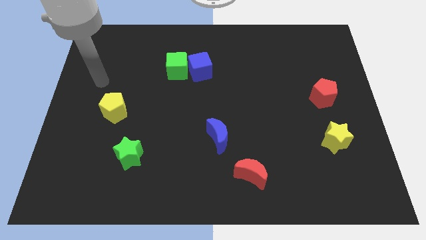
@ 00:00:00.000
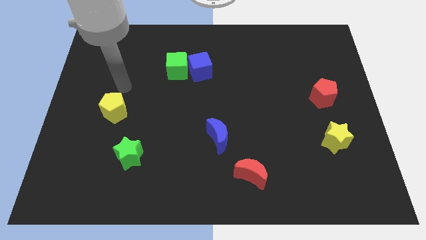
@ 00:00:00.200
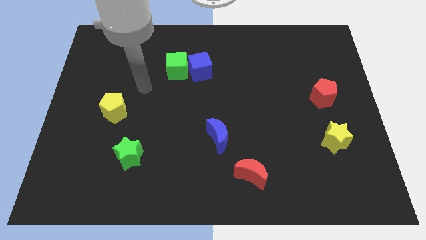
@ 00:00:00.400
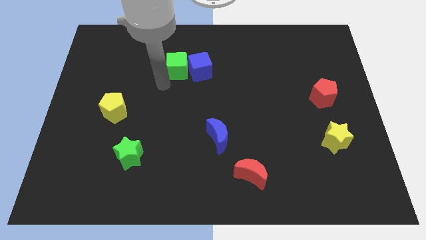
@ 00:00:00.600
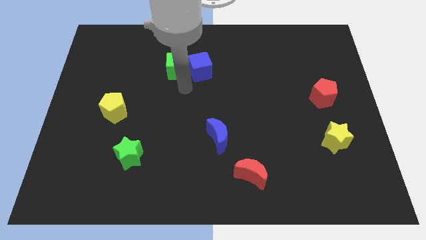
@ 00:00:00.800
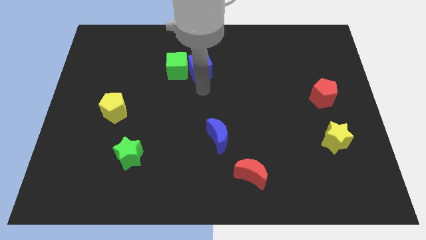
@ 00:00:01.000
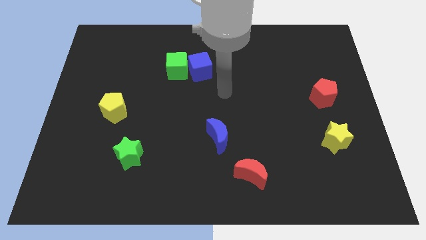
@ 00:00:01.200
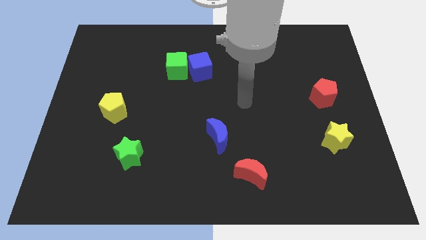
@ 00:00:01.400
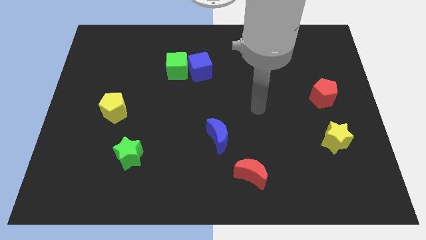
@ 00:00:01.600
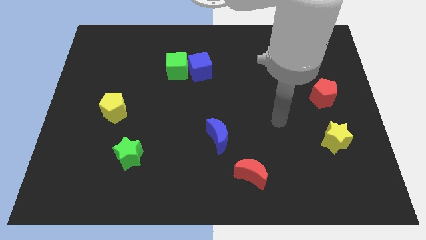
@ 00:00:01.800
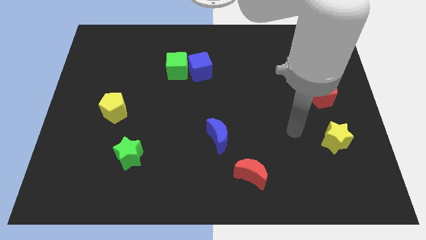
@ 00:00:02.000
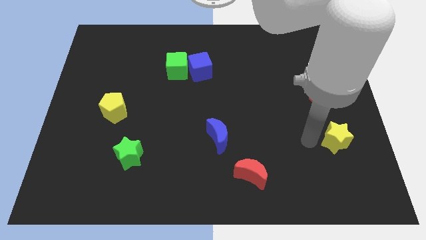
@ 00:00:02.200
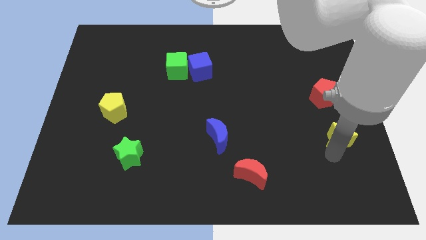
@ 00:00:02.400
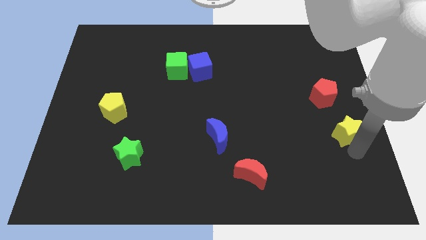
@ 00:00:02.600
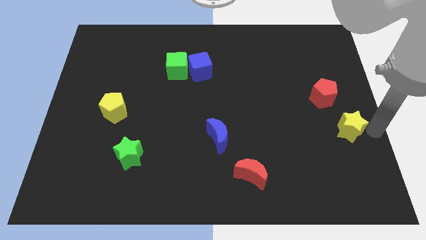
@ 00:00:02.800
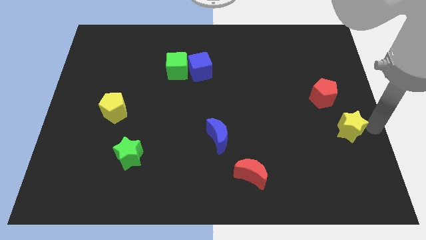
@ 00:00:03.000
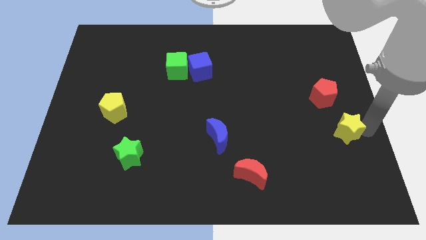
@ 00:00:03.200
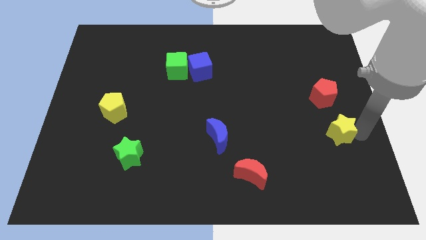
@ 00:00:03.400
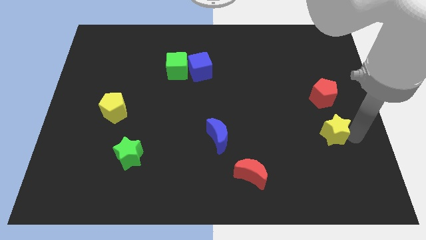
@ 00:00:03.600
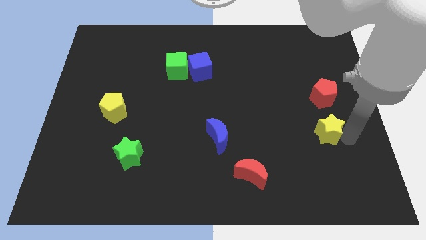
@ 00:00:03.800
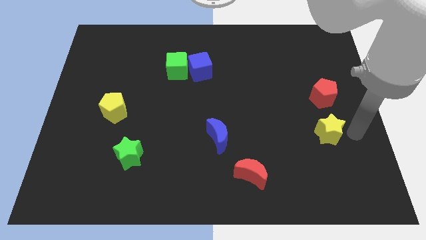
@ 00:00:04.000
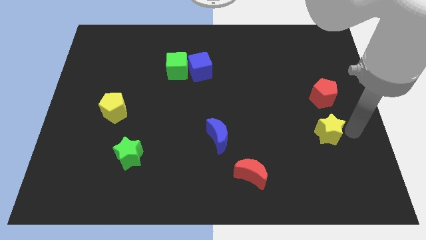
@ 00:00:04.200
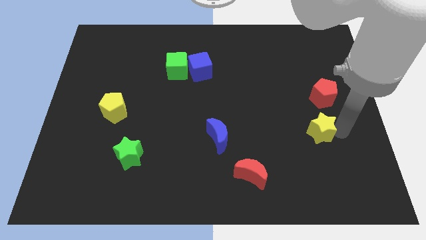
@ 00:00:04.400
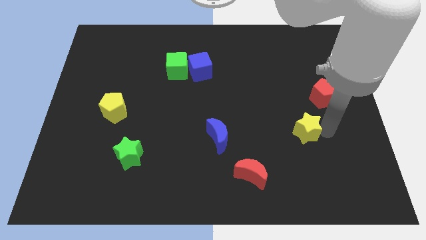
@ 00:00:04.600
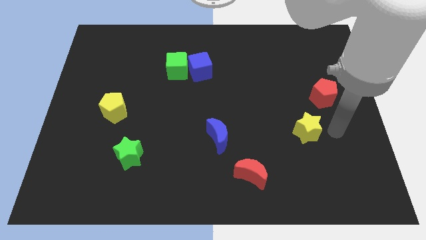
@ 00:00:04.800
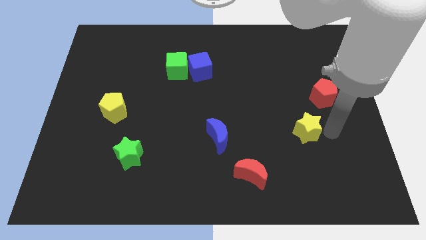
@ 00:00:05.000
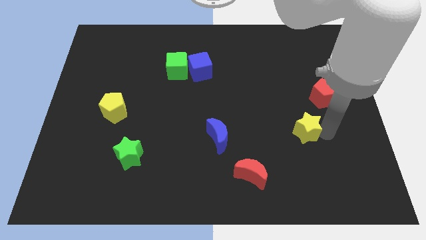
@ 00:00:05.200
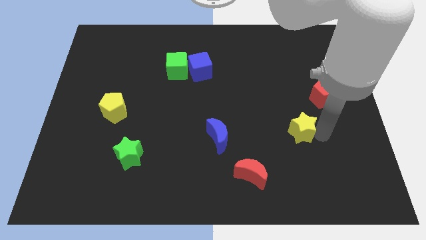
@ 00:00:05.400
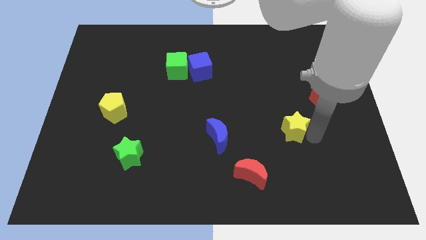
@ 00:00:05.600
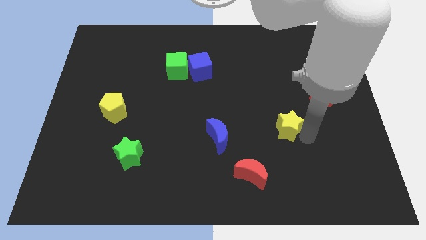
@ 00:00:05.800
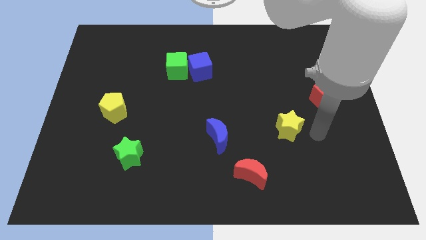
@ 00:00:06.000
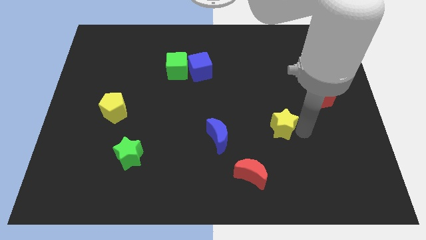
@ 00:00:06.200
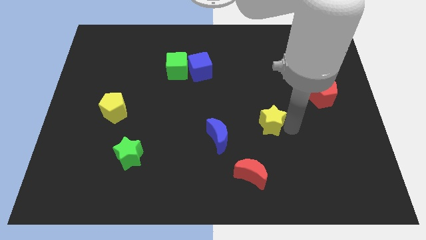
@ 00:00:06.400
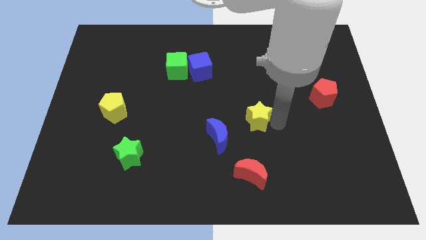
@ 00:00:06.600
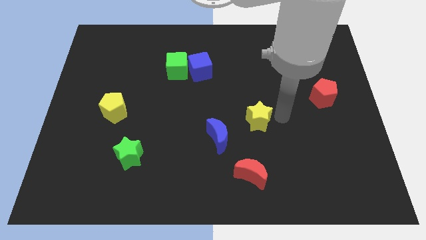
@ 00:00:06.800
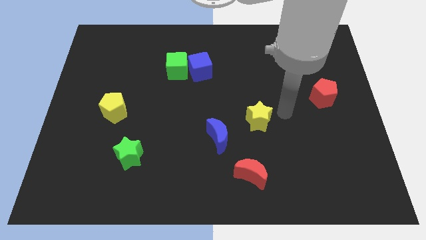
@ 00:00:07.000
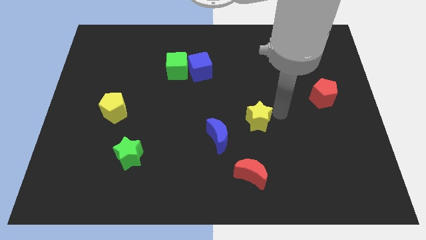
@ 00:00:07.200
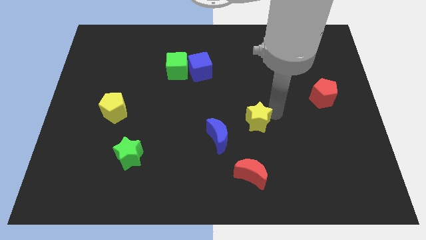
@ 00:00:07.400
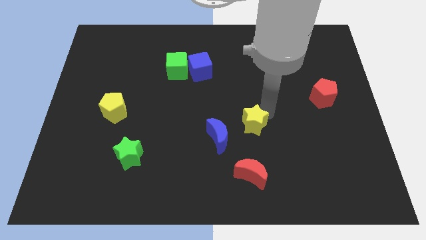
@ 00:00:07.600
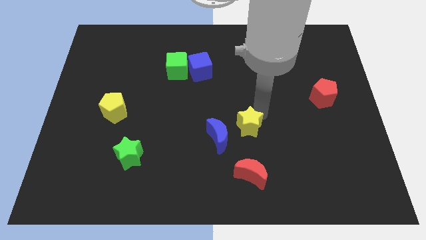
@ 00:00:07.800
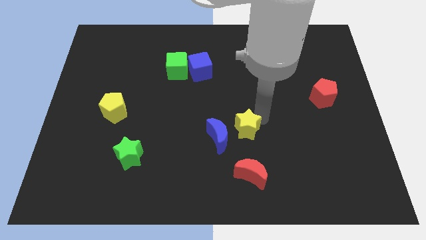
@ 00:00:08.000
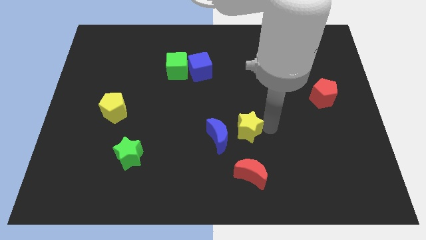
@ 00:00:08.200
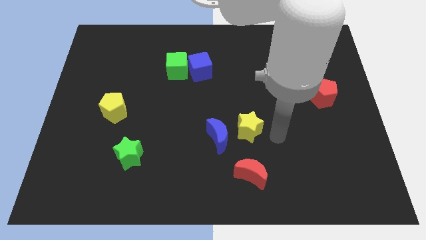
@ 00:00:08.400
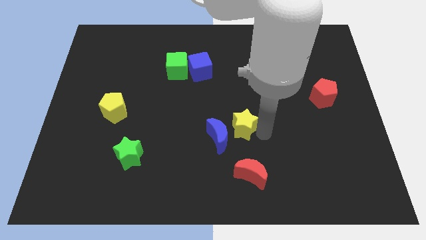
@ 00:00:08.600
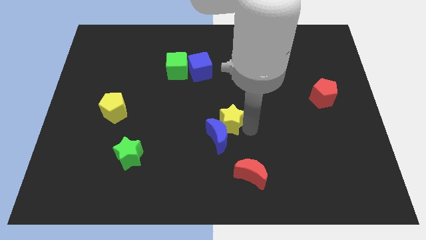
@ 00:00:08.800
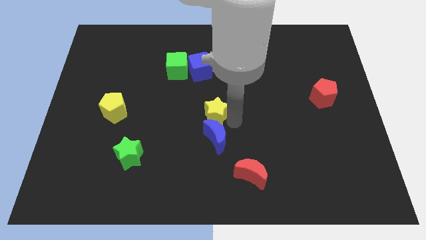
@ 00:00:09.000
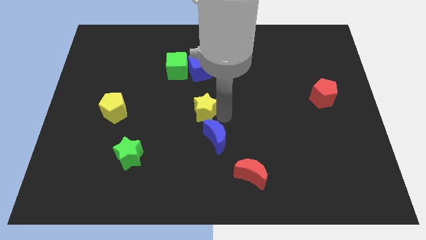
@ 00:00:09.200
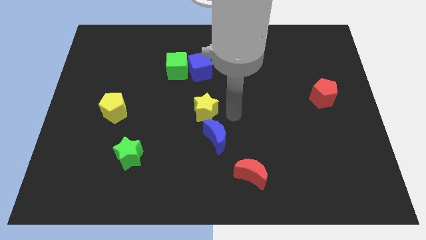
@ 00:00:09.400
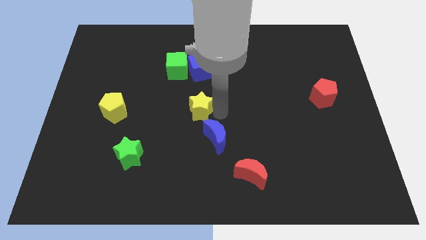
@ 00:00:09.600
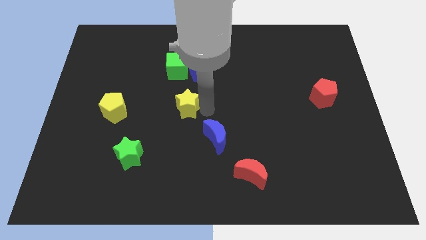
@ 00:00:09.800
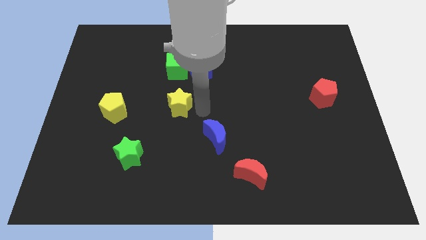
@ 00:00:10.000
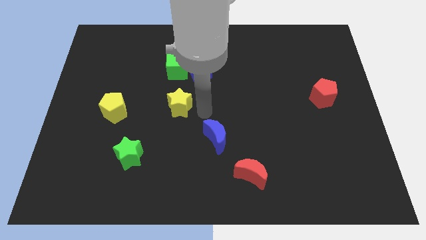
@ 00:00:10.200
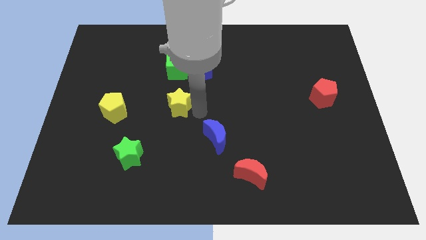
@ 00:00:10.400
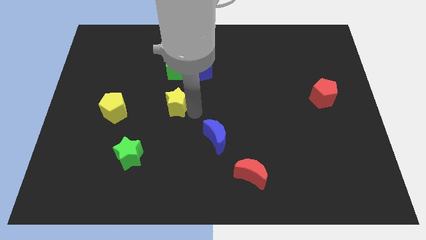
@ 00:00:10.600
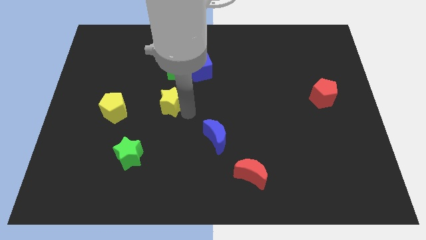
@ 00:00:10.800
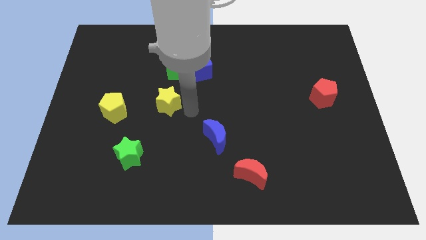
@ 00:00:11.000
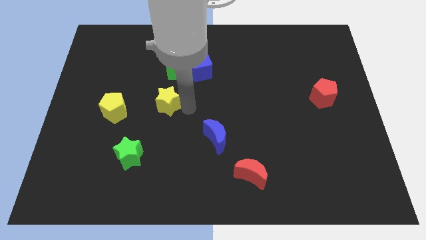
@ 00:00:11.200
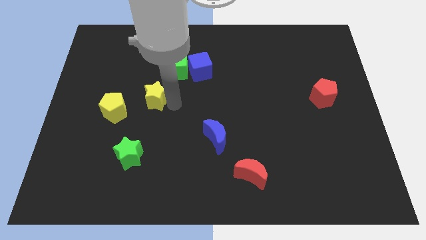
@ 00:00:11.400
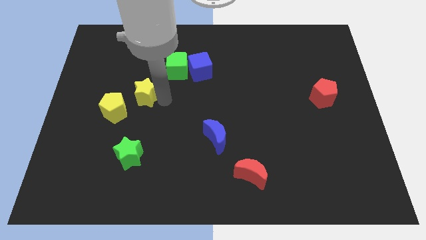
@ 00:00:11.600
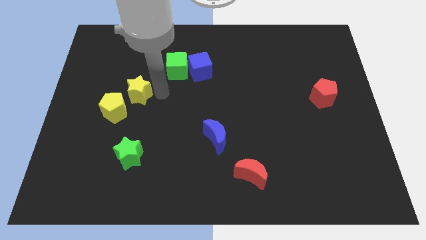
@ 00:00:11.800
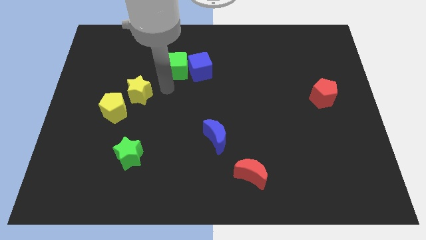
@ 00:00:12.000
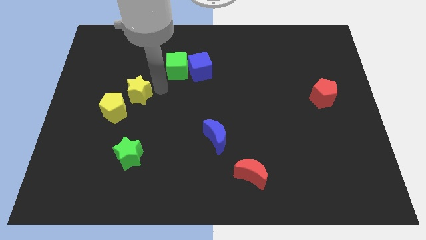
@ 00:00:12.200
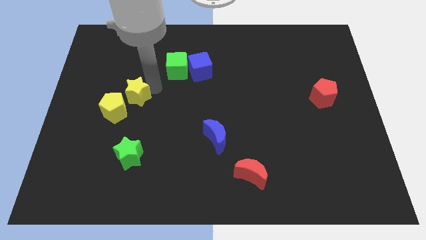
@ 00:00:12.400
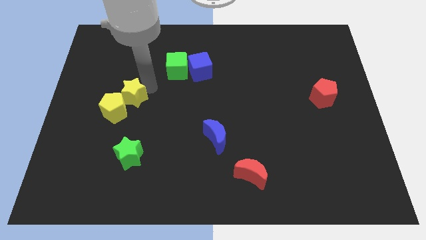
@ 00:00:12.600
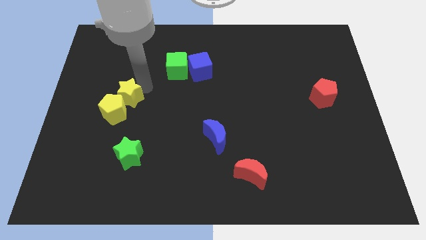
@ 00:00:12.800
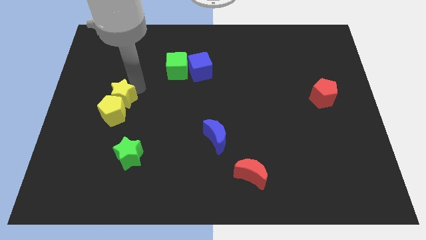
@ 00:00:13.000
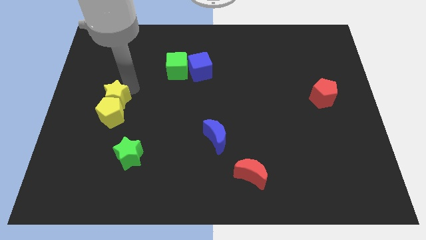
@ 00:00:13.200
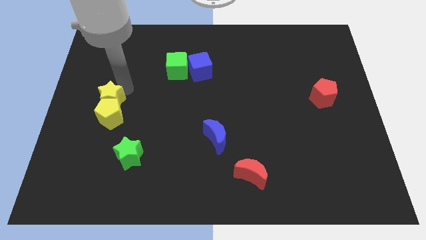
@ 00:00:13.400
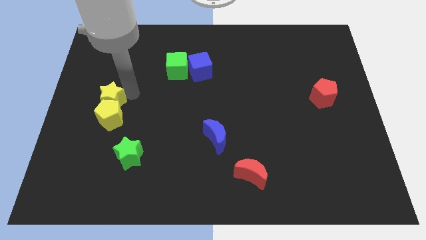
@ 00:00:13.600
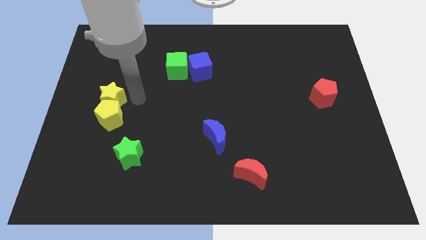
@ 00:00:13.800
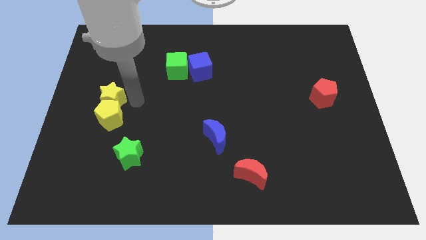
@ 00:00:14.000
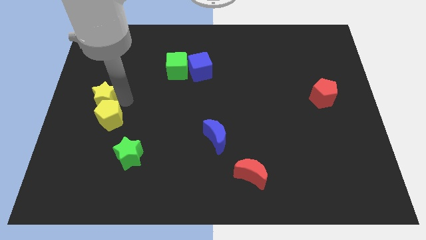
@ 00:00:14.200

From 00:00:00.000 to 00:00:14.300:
slide the yellow star to the left side of the board
